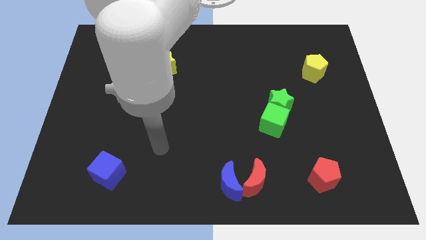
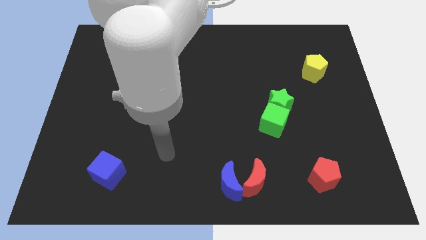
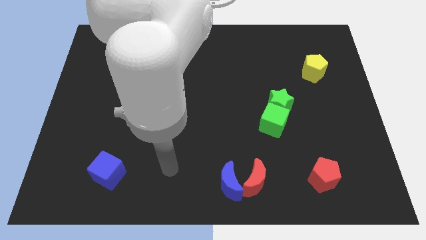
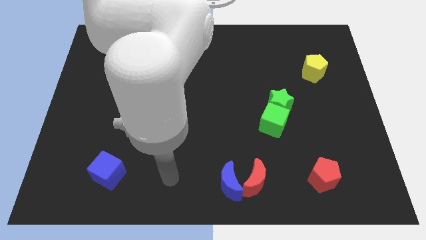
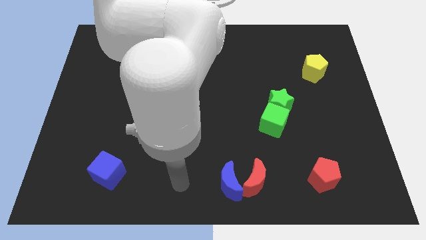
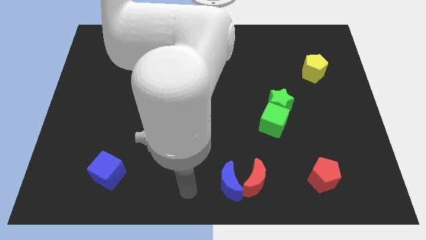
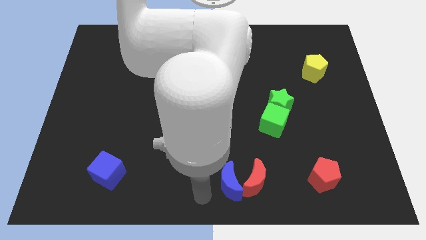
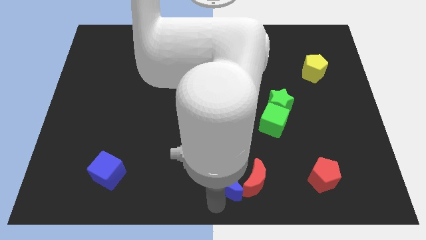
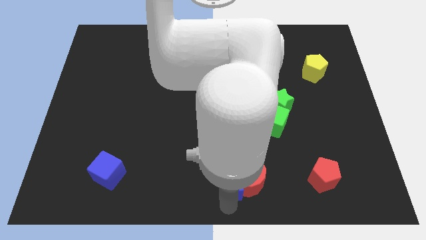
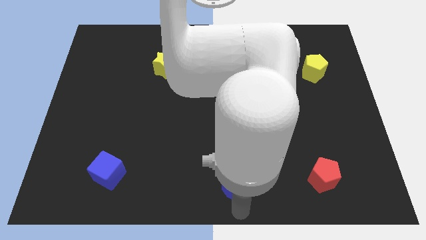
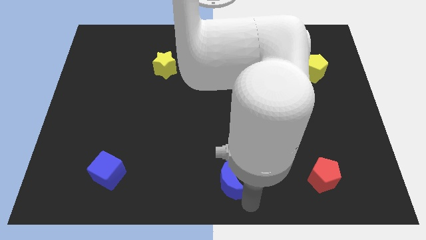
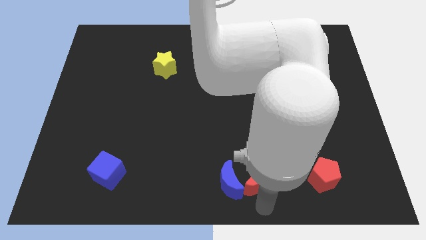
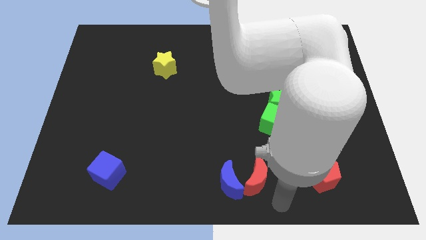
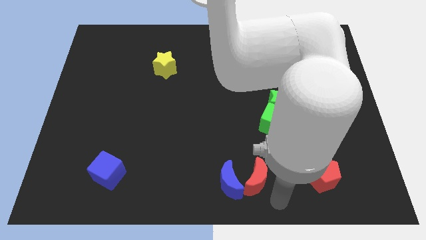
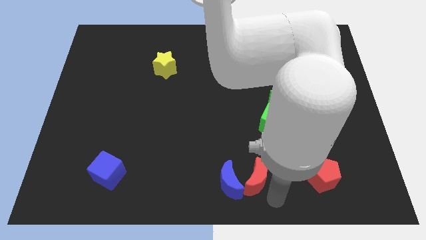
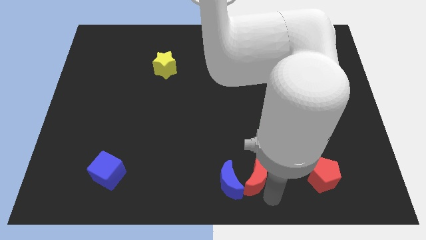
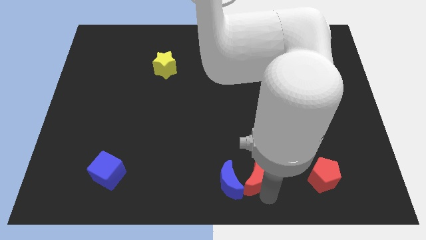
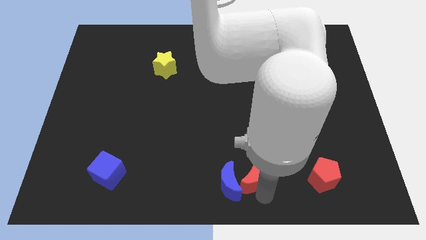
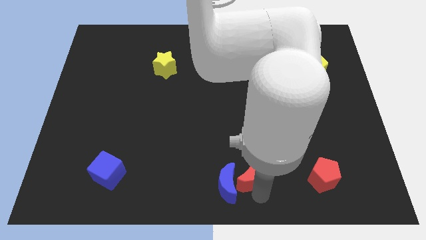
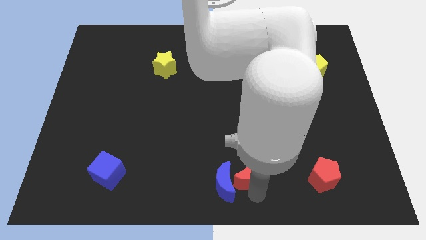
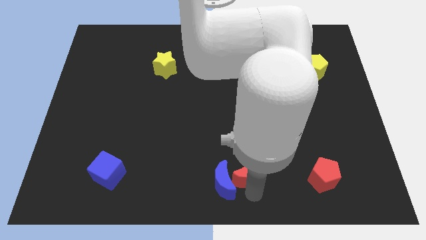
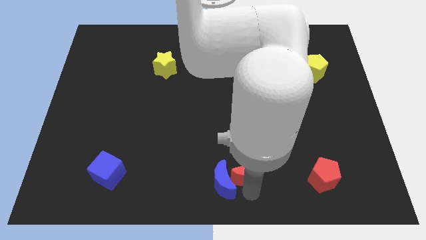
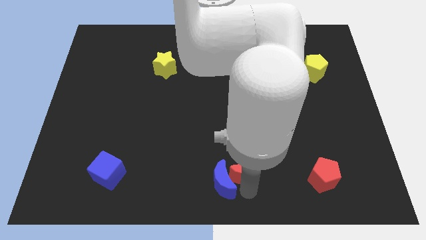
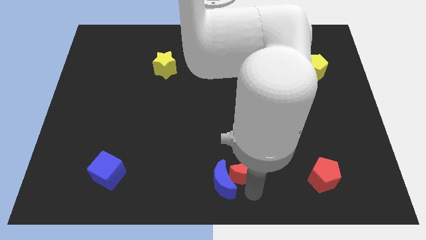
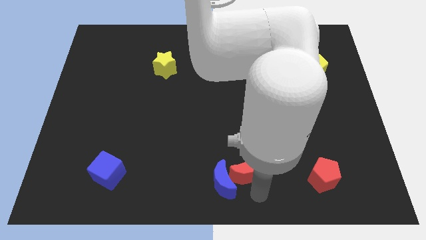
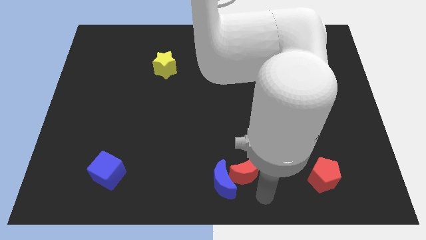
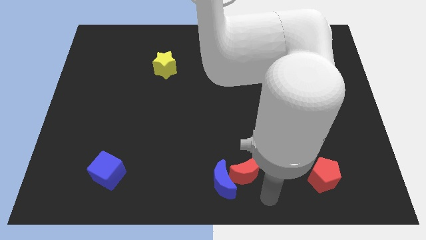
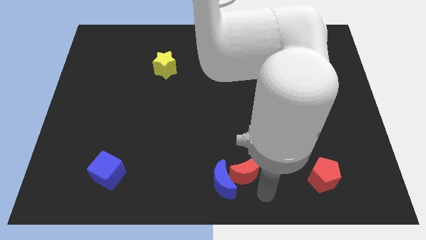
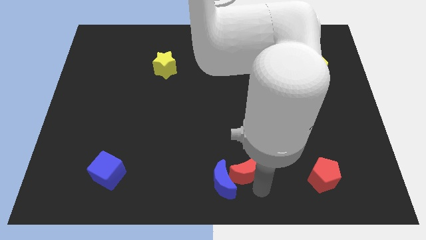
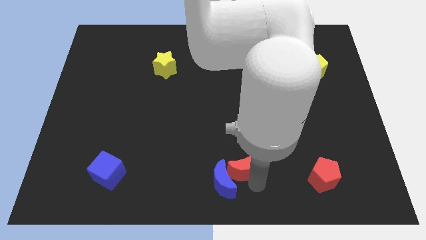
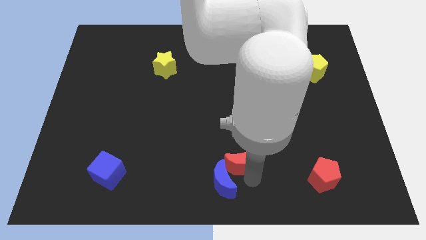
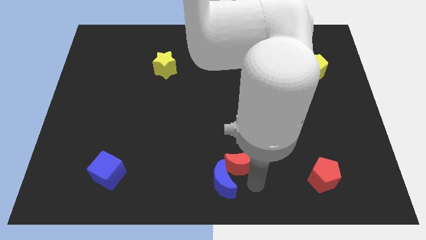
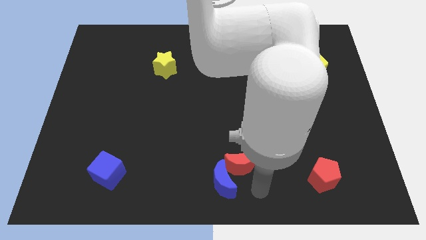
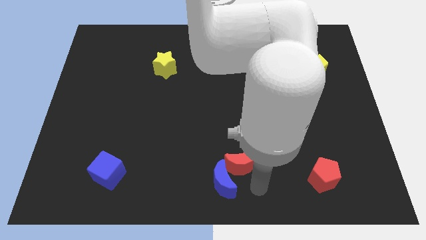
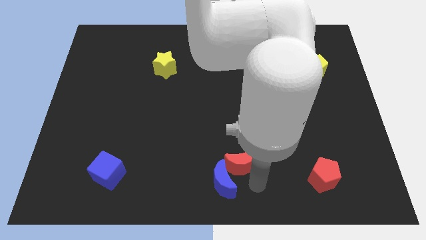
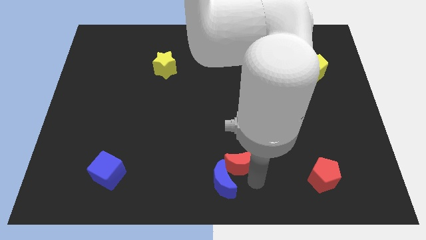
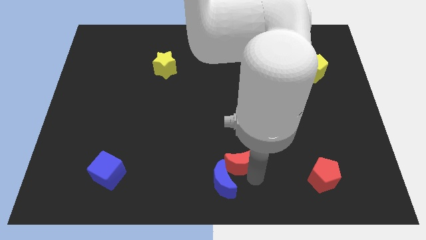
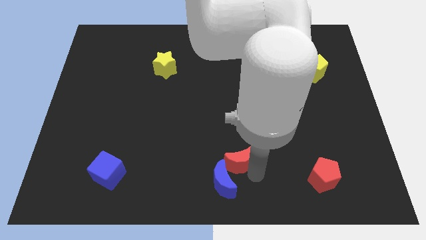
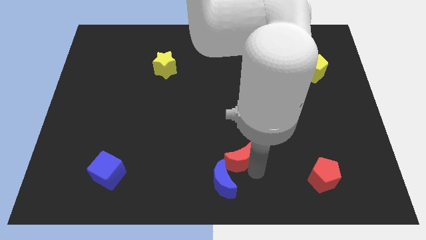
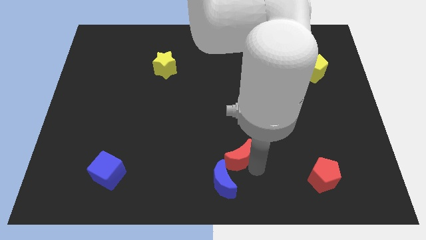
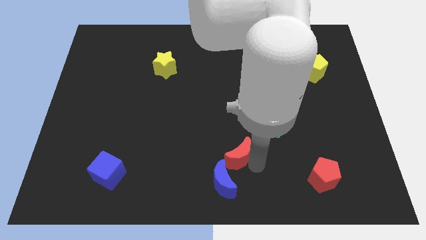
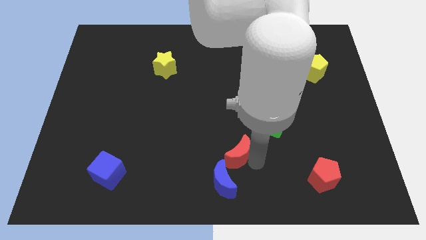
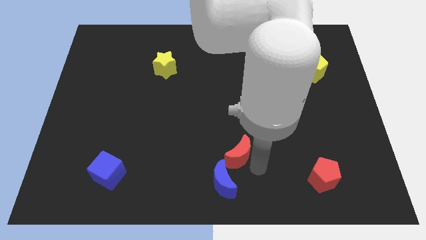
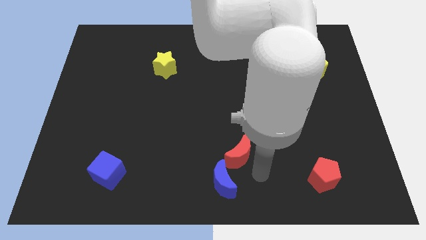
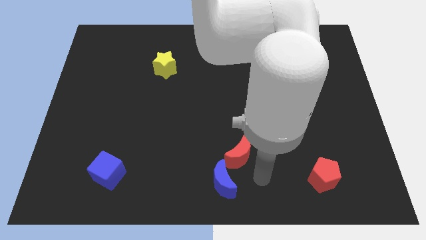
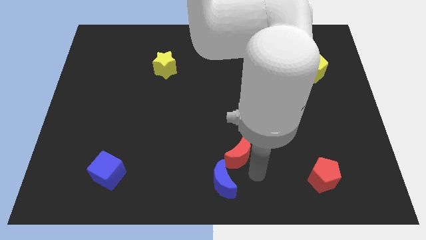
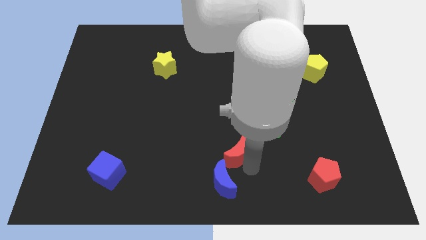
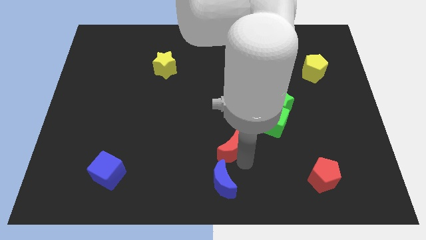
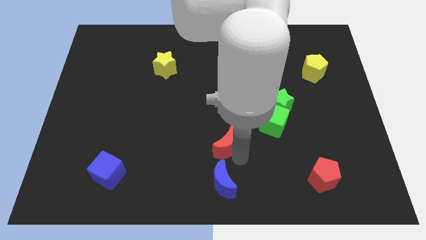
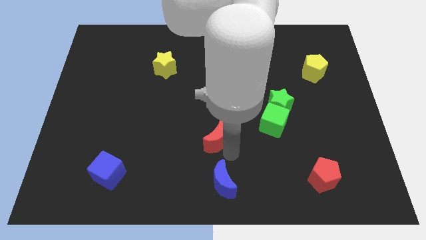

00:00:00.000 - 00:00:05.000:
move the red moon to the middle

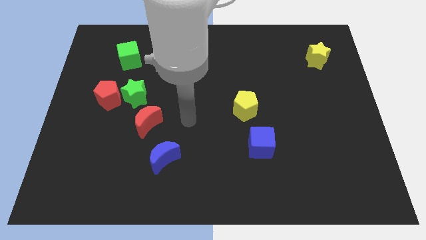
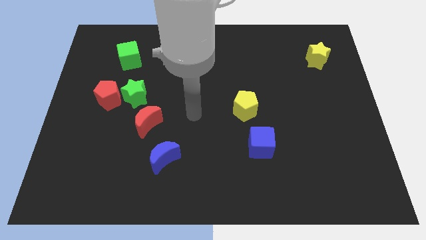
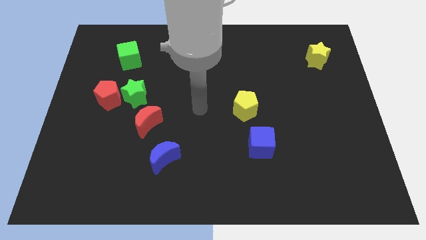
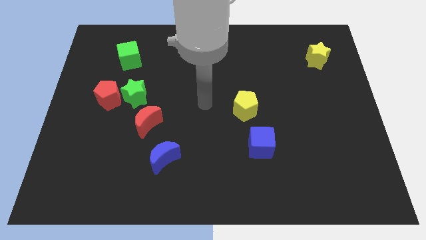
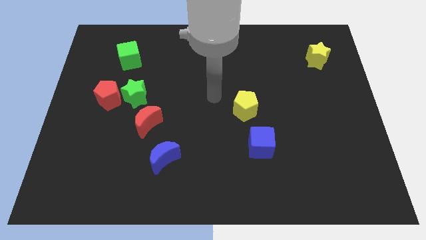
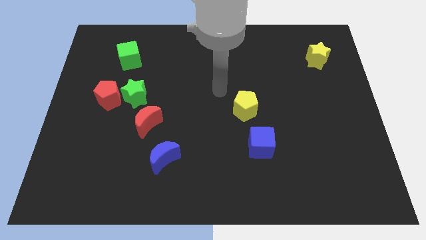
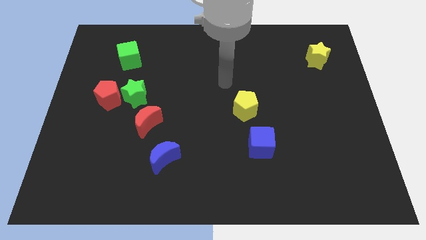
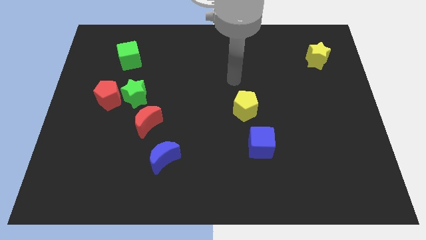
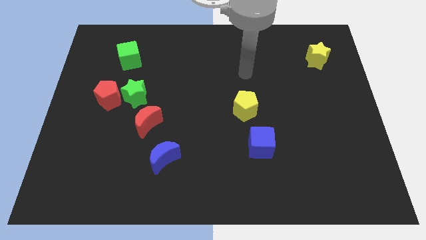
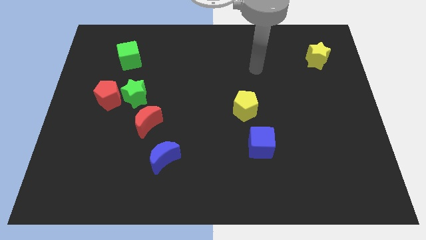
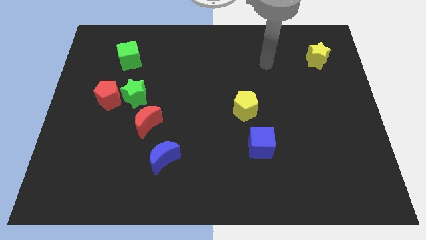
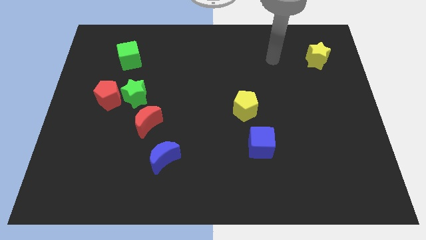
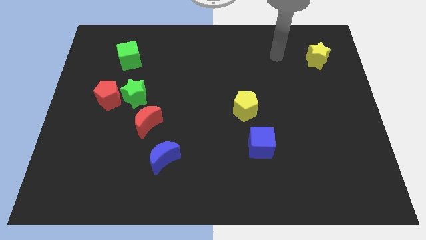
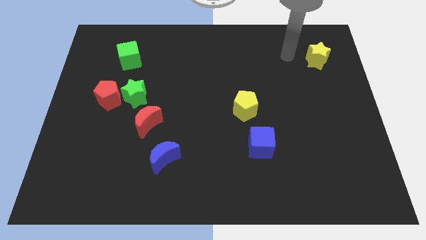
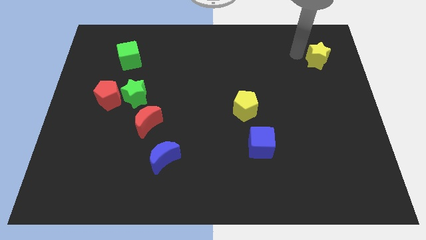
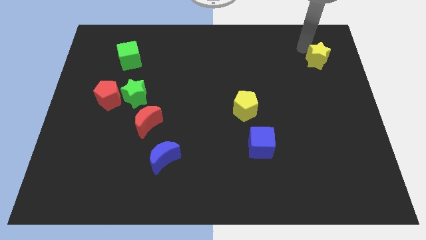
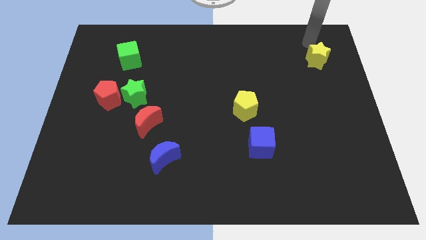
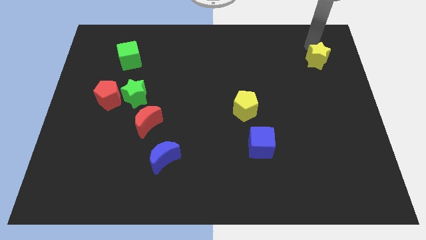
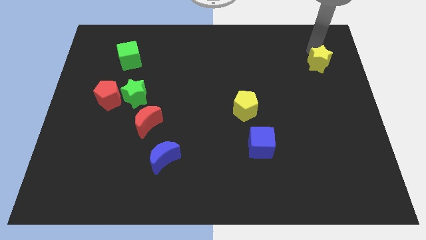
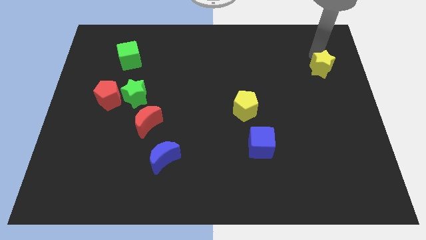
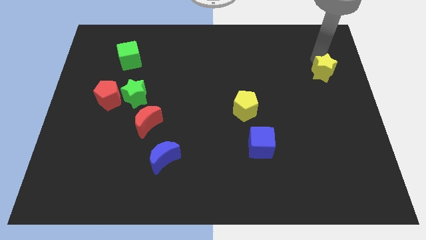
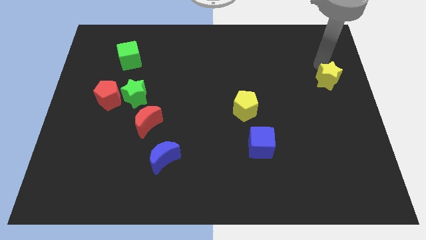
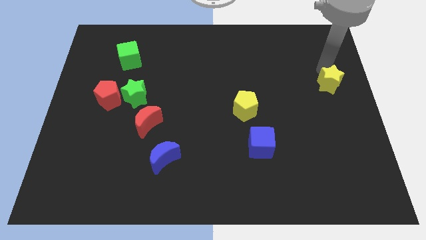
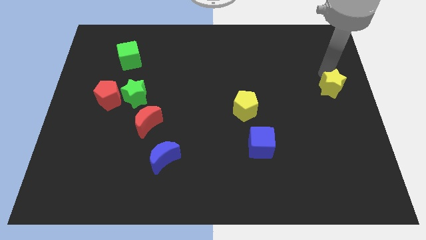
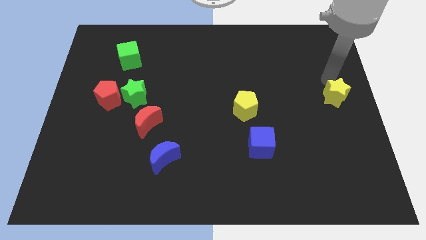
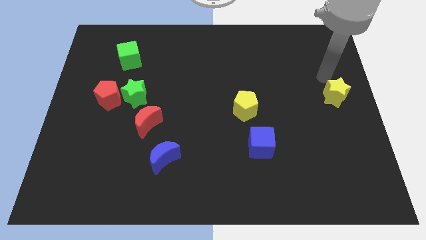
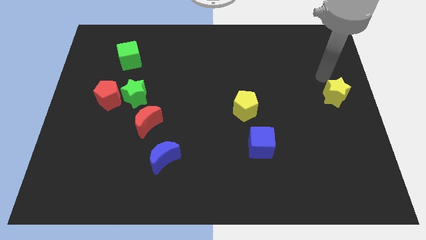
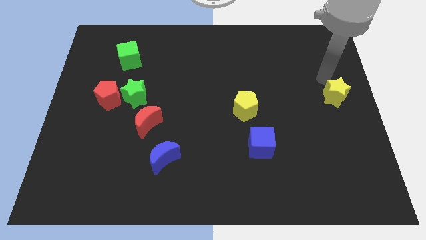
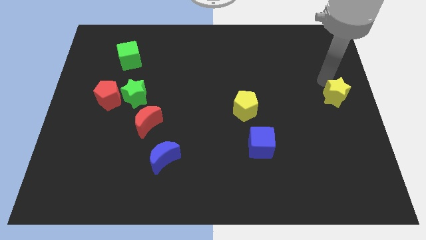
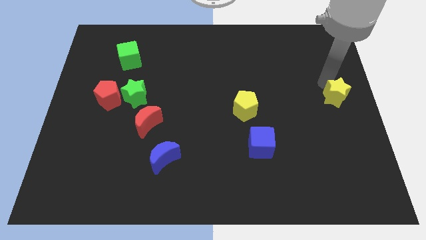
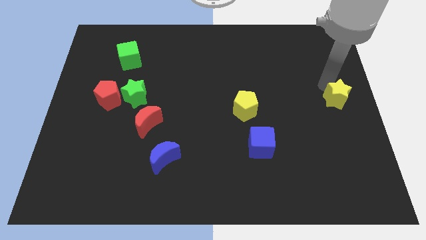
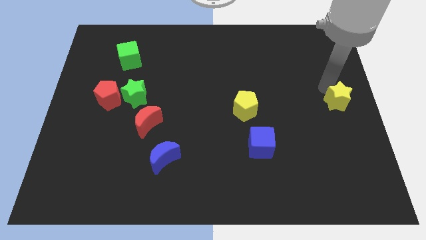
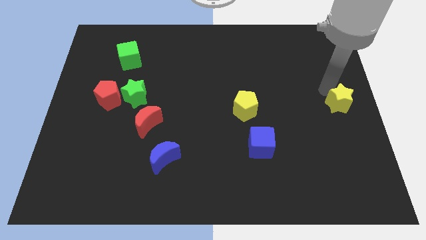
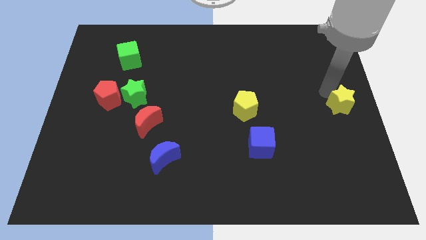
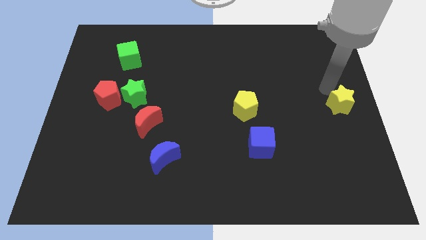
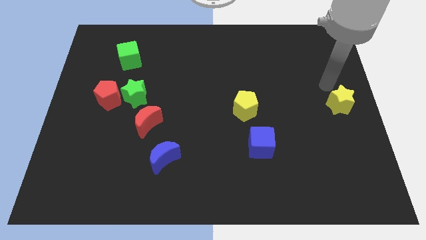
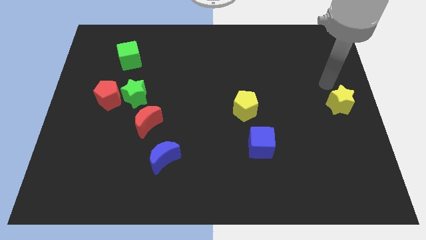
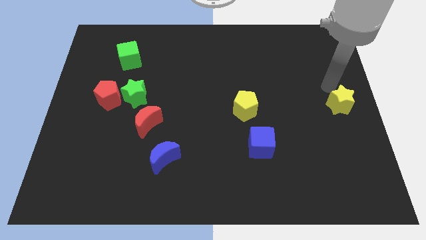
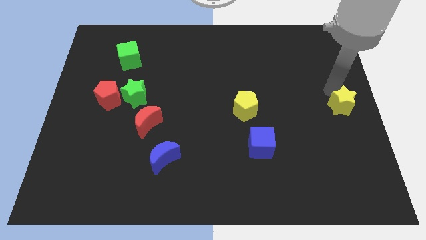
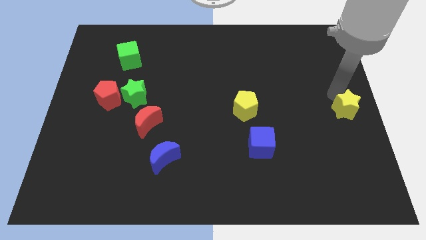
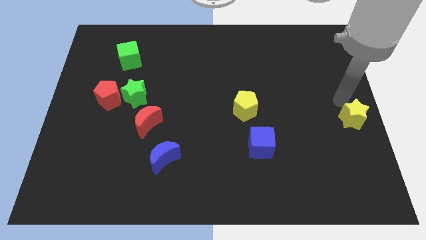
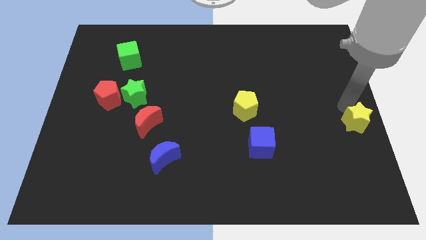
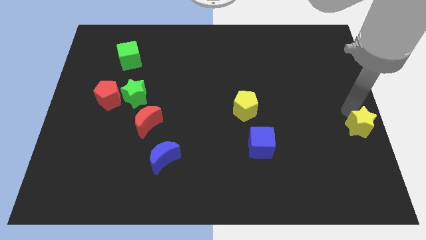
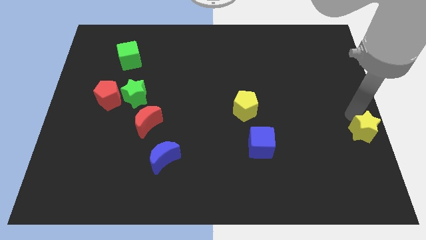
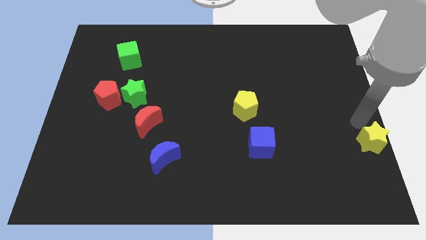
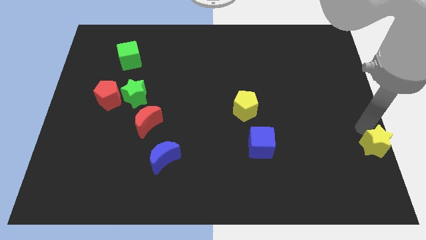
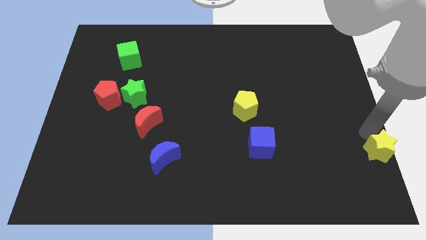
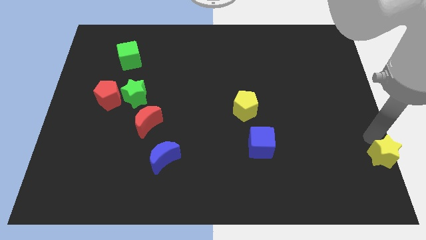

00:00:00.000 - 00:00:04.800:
put the yellow star to the bottom right corner
